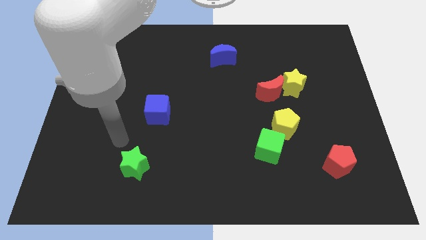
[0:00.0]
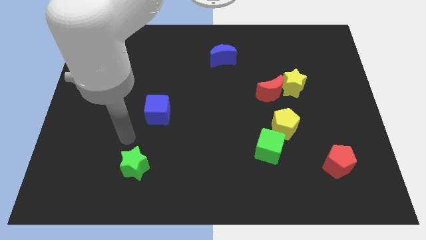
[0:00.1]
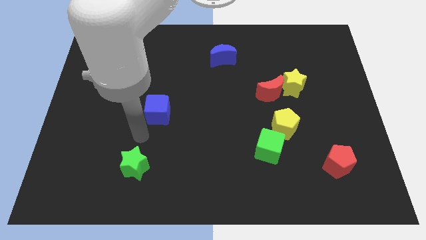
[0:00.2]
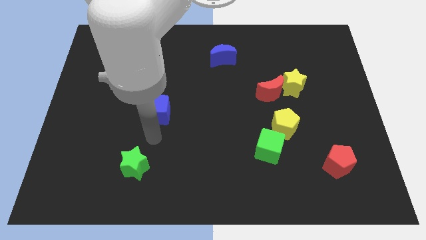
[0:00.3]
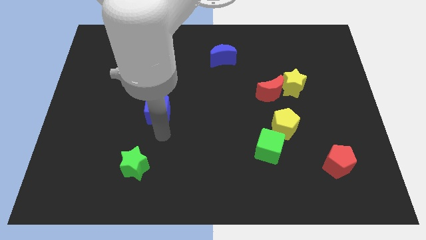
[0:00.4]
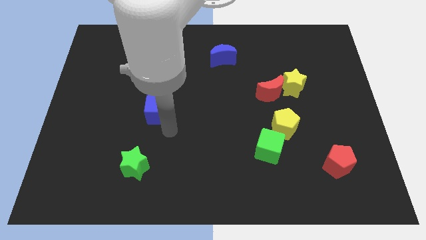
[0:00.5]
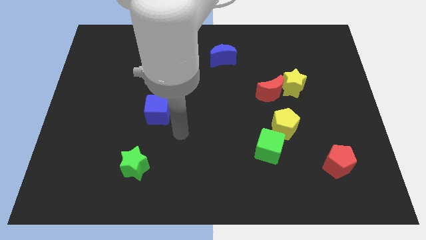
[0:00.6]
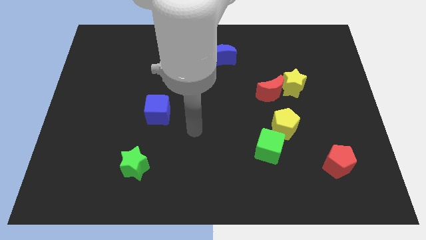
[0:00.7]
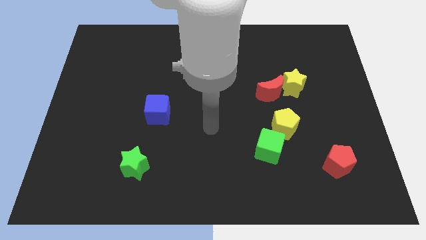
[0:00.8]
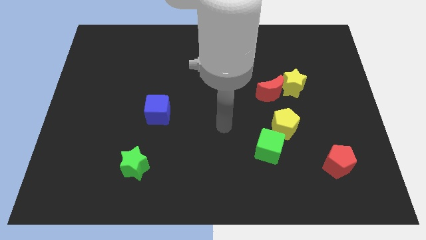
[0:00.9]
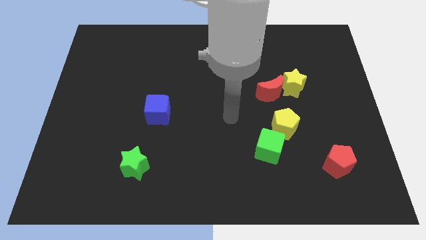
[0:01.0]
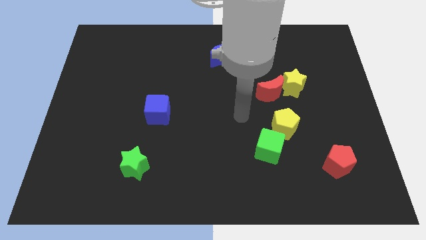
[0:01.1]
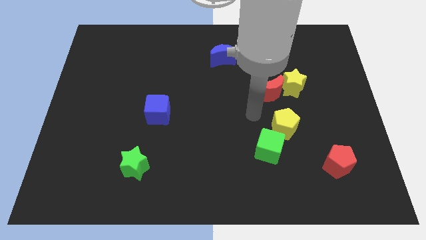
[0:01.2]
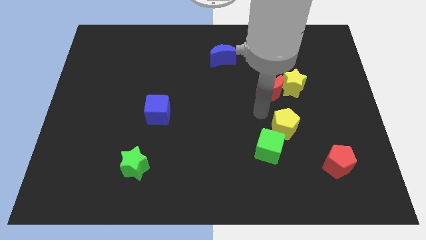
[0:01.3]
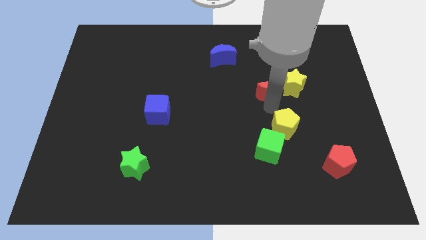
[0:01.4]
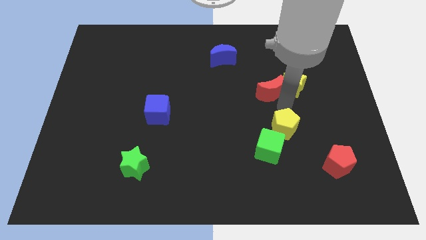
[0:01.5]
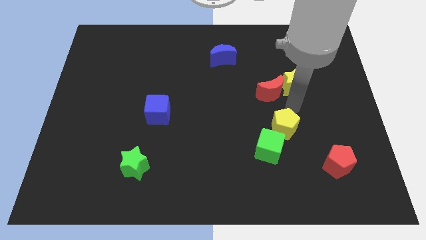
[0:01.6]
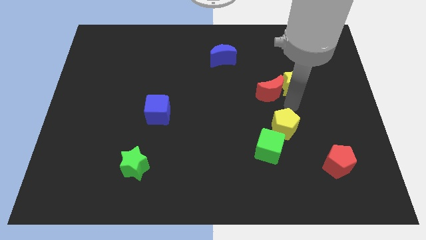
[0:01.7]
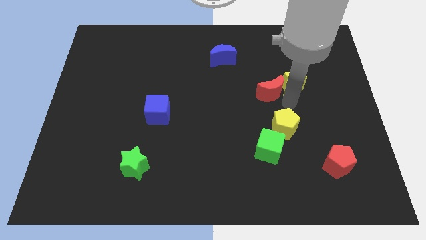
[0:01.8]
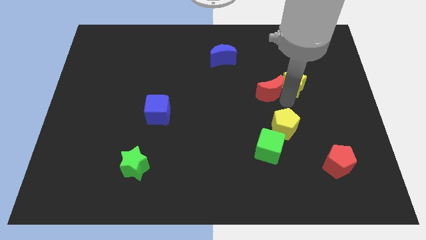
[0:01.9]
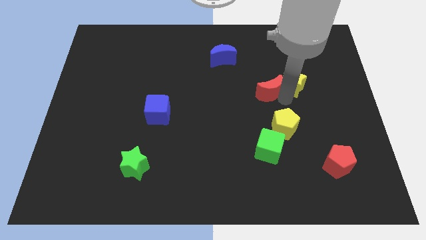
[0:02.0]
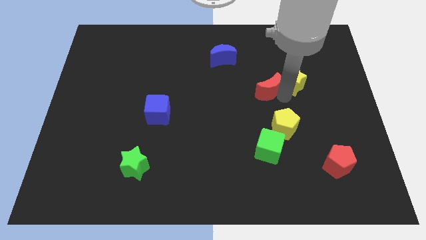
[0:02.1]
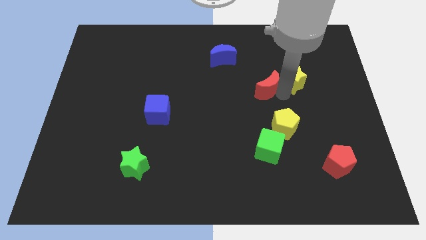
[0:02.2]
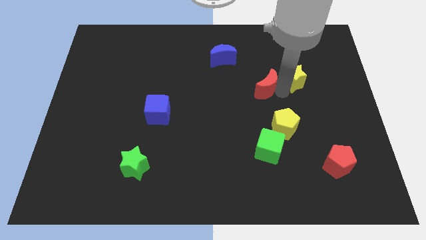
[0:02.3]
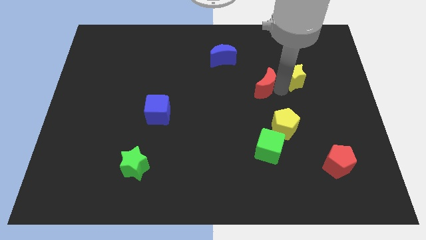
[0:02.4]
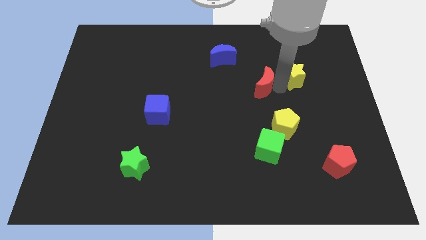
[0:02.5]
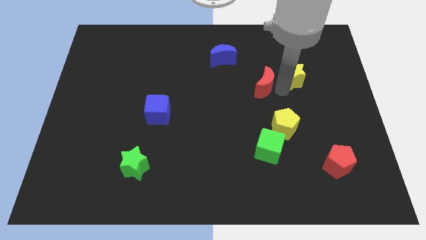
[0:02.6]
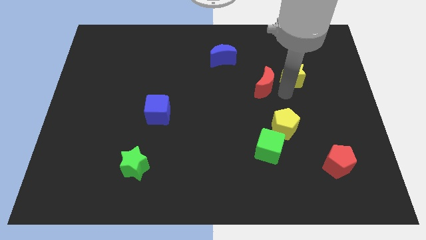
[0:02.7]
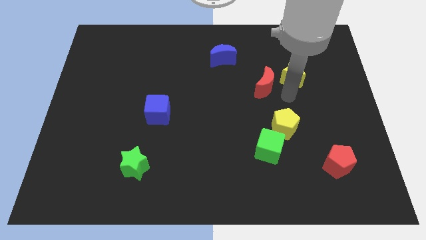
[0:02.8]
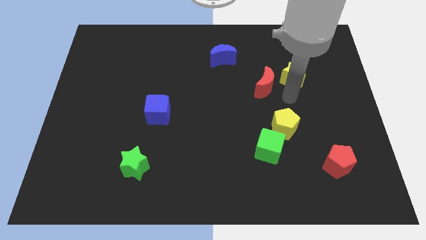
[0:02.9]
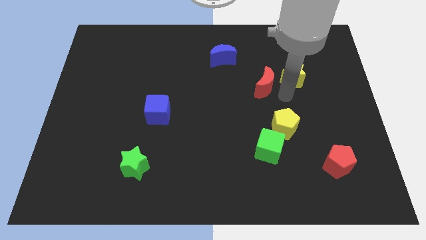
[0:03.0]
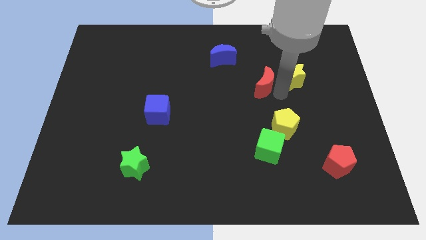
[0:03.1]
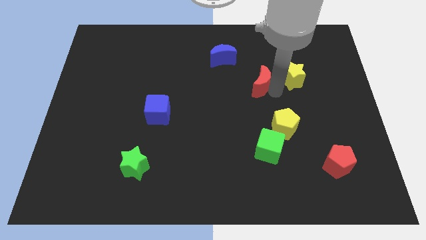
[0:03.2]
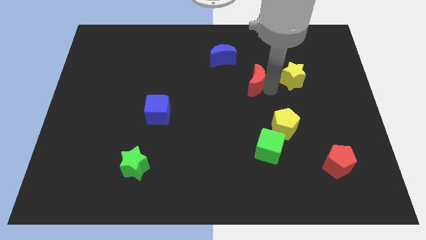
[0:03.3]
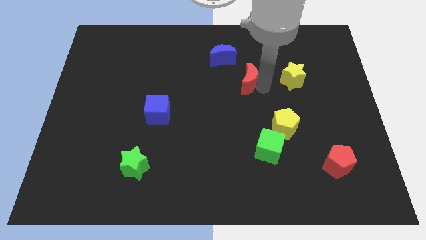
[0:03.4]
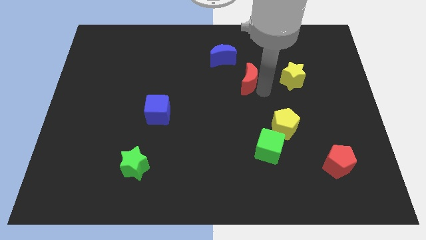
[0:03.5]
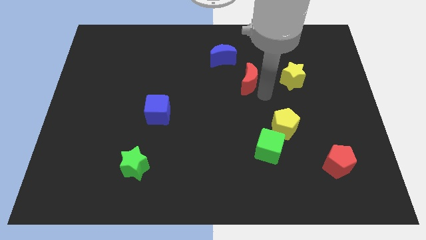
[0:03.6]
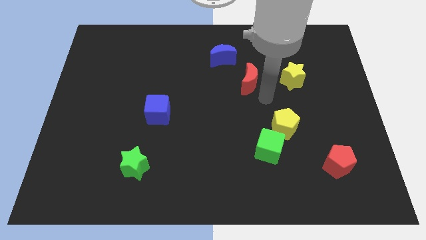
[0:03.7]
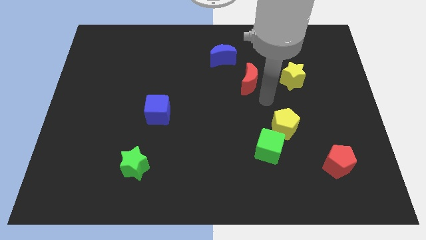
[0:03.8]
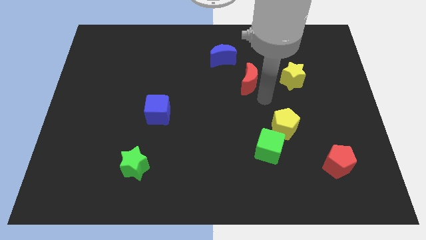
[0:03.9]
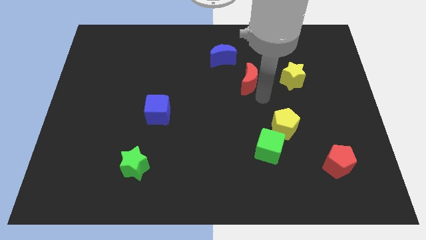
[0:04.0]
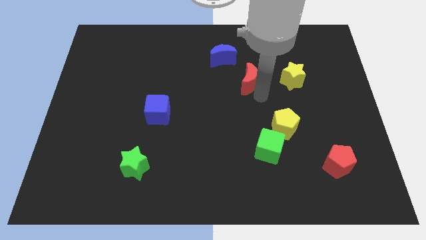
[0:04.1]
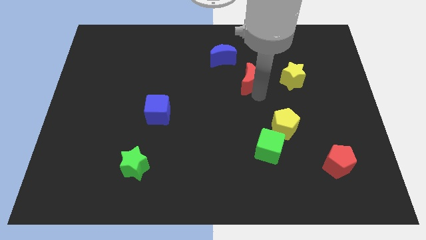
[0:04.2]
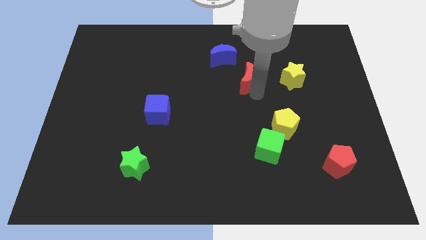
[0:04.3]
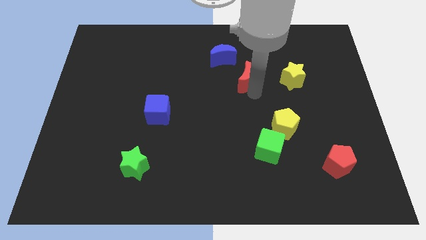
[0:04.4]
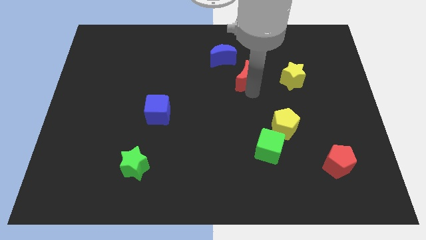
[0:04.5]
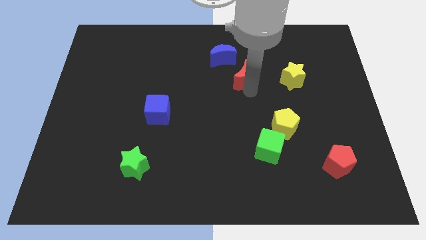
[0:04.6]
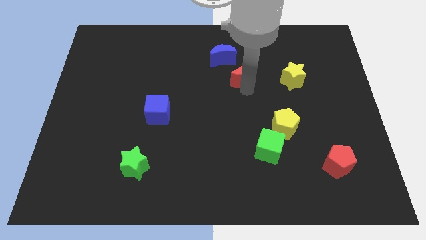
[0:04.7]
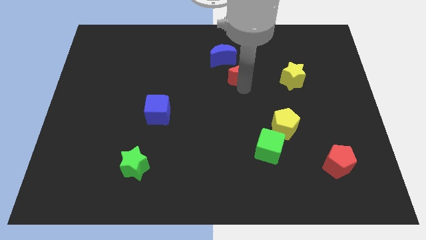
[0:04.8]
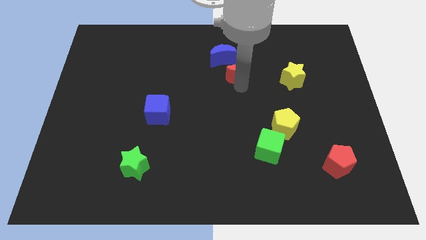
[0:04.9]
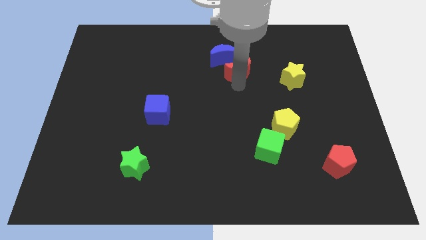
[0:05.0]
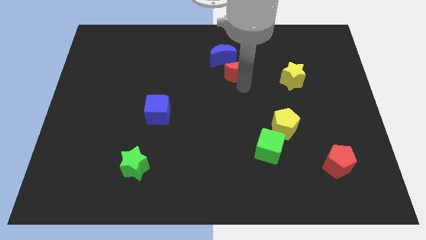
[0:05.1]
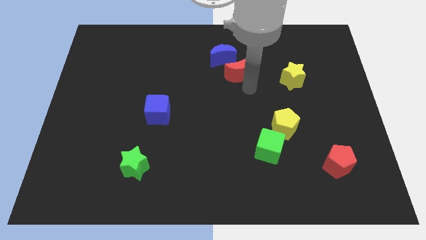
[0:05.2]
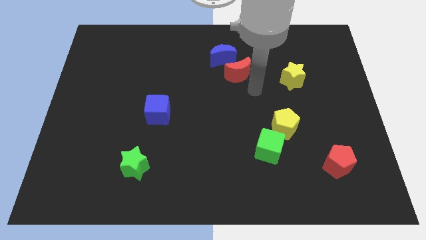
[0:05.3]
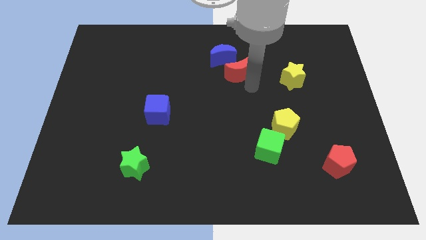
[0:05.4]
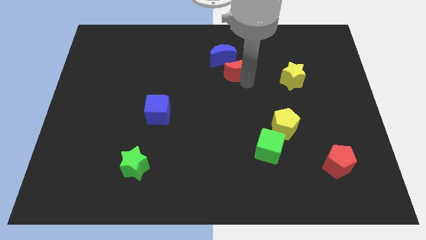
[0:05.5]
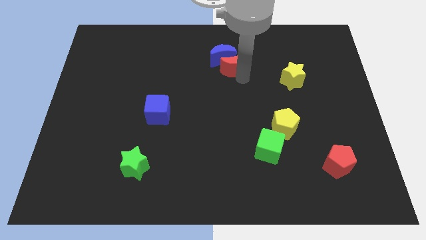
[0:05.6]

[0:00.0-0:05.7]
push the red moon close to the blue moon

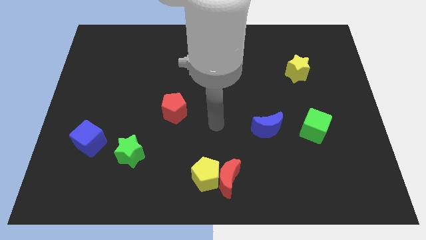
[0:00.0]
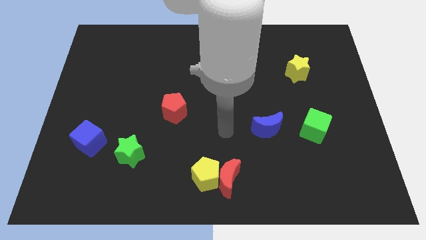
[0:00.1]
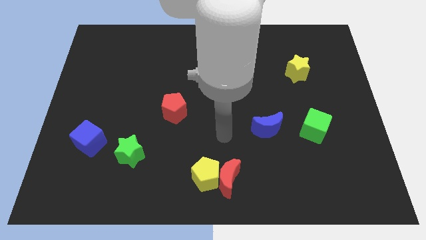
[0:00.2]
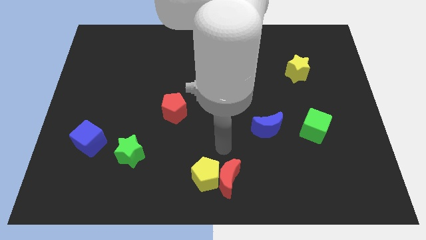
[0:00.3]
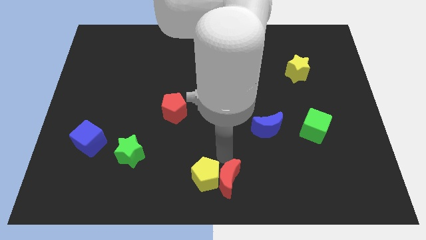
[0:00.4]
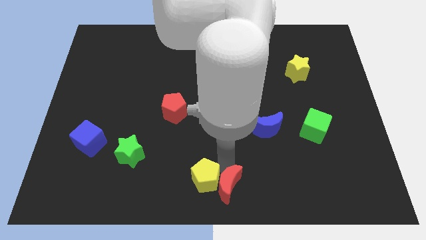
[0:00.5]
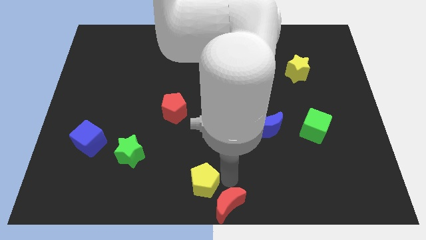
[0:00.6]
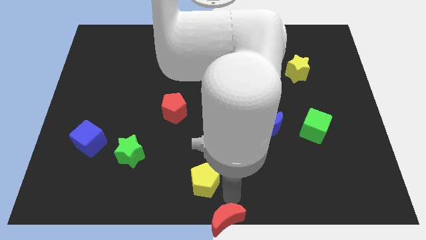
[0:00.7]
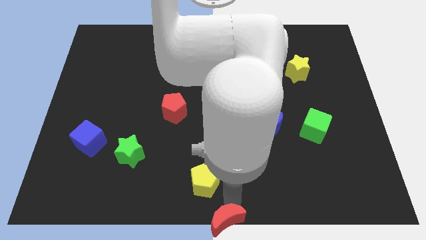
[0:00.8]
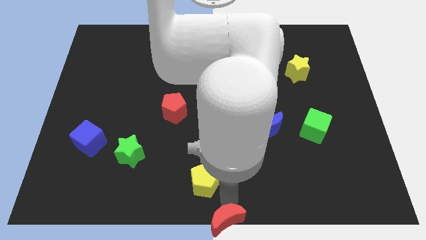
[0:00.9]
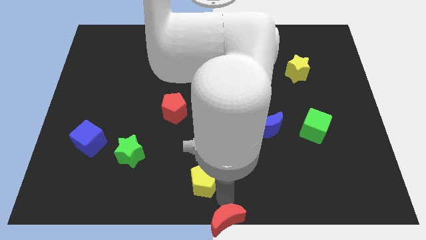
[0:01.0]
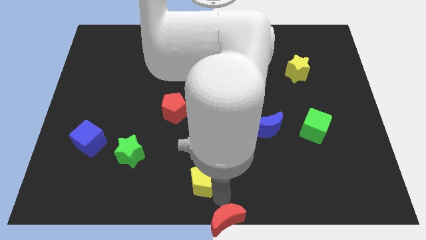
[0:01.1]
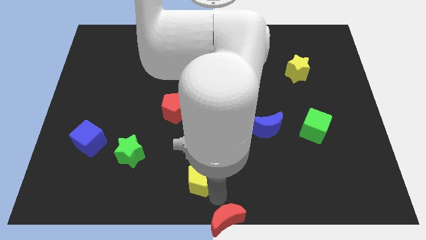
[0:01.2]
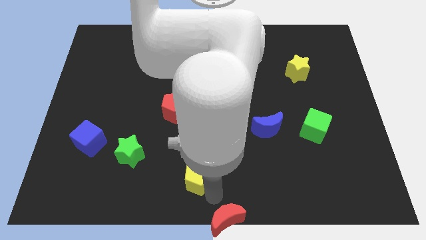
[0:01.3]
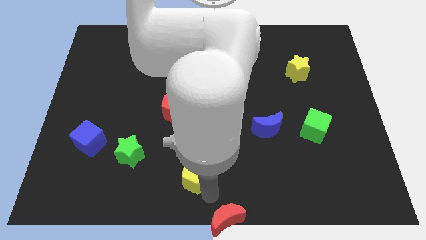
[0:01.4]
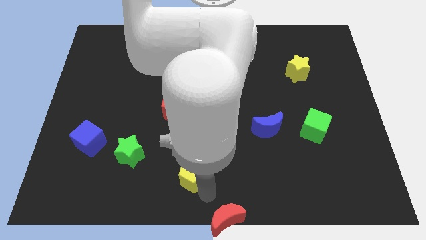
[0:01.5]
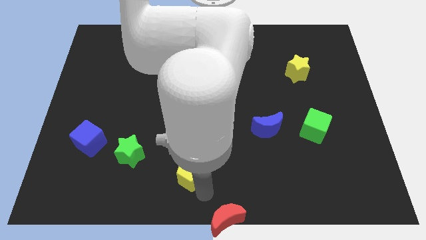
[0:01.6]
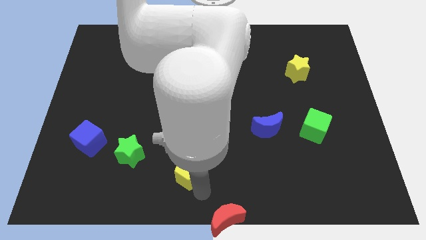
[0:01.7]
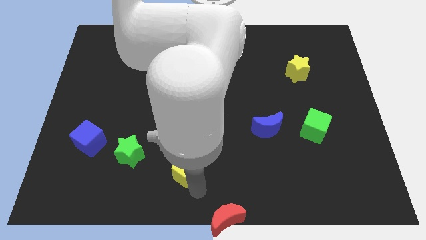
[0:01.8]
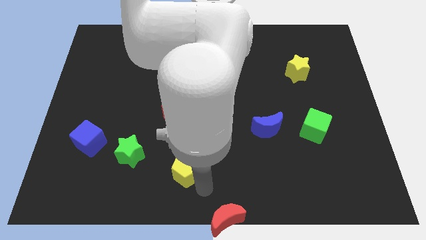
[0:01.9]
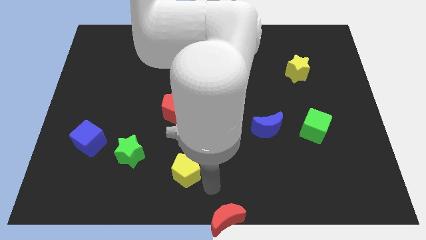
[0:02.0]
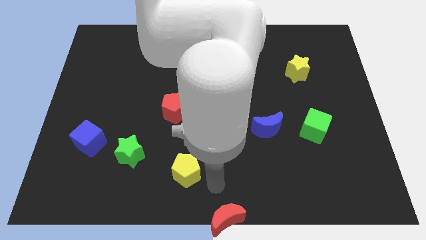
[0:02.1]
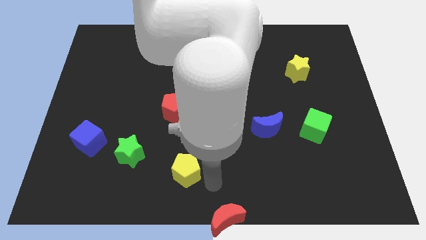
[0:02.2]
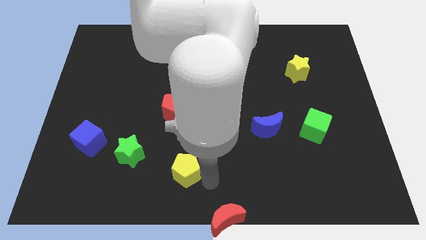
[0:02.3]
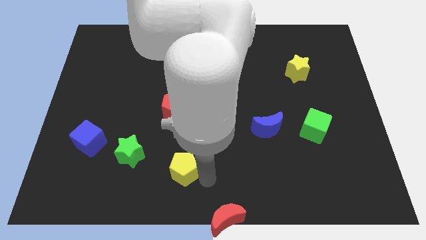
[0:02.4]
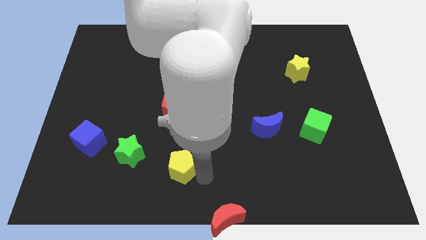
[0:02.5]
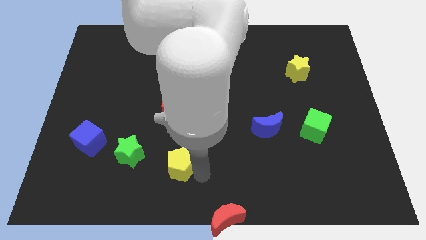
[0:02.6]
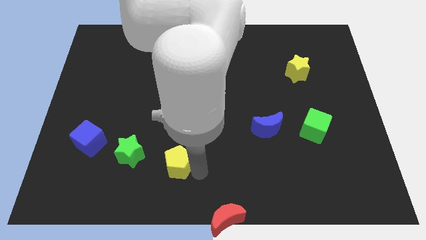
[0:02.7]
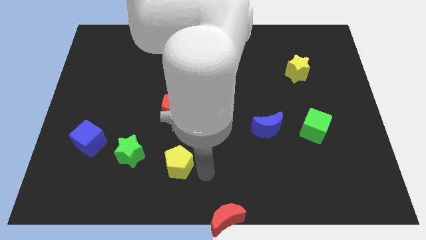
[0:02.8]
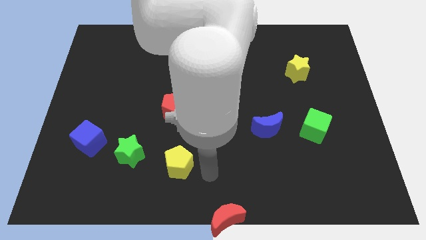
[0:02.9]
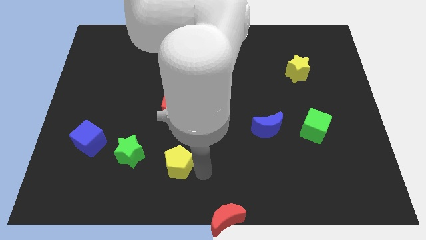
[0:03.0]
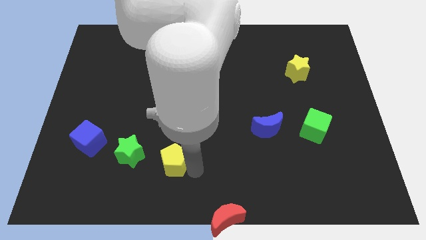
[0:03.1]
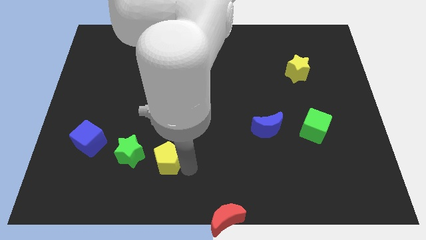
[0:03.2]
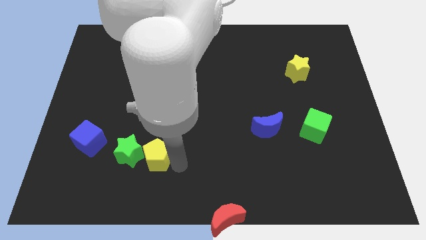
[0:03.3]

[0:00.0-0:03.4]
slide the yellow pentagon next to the green star
